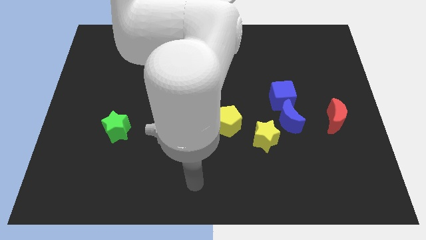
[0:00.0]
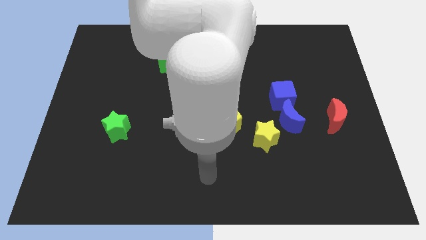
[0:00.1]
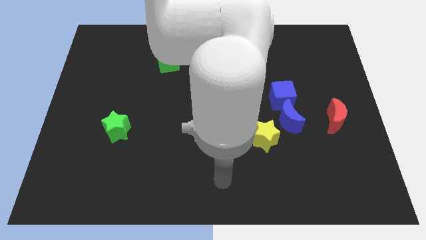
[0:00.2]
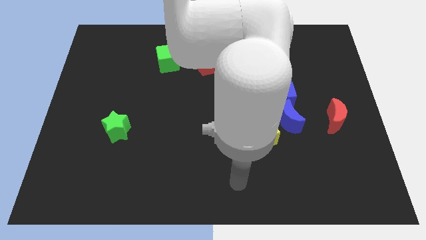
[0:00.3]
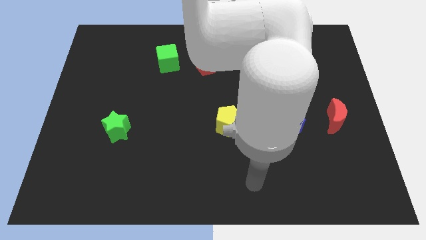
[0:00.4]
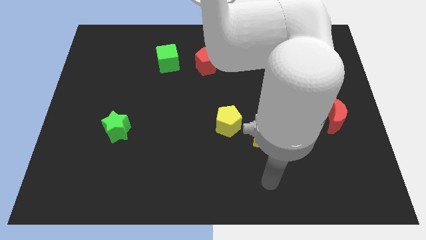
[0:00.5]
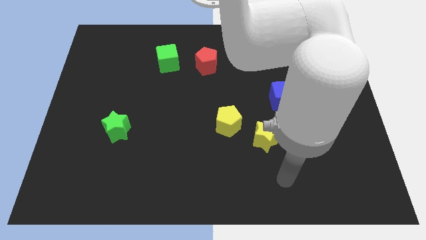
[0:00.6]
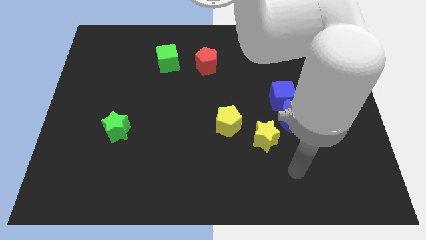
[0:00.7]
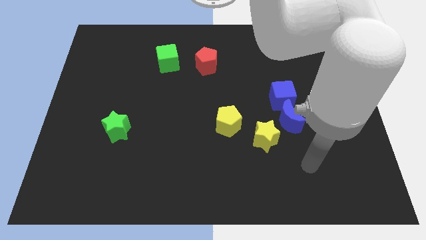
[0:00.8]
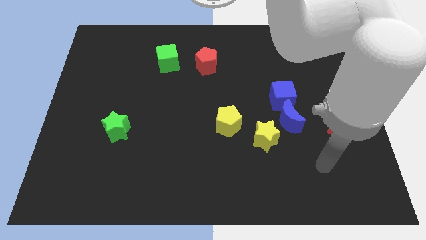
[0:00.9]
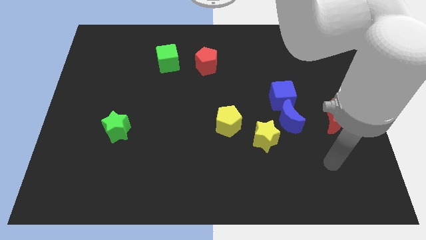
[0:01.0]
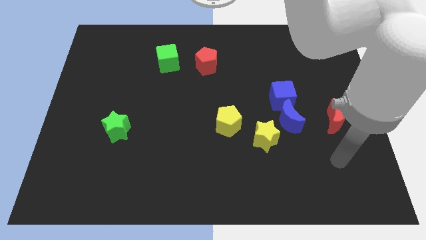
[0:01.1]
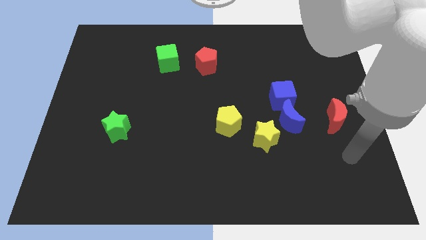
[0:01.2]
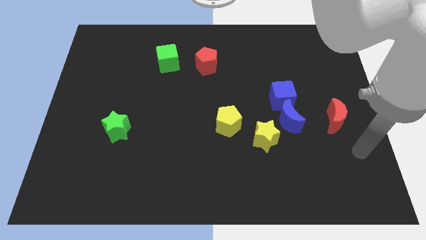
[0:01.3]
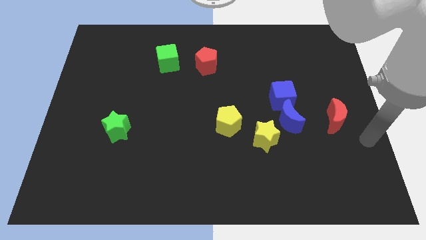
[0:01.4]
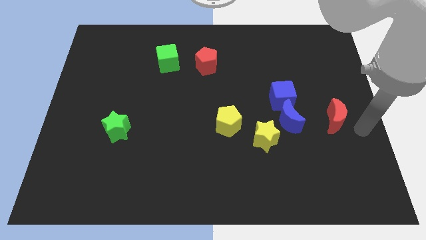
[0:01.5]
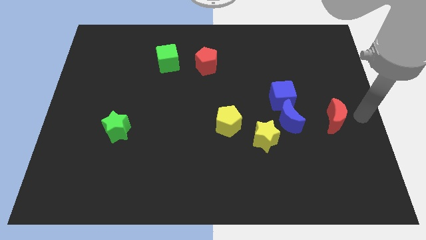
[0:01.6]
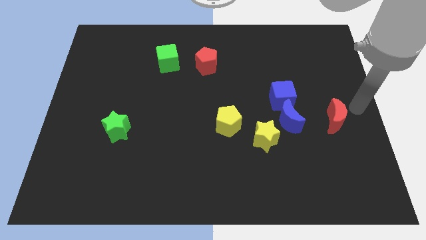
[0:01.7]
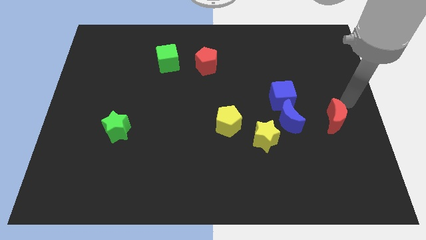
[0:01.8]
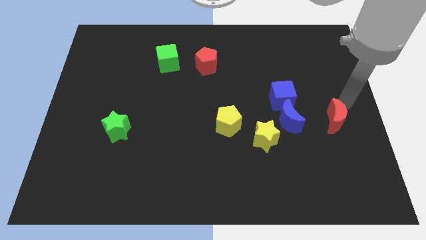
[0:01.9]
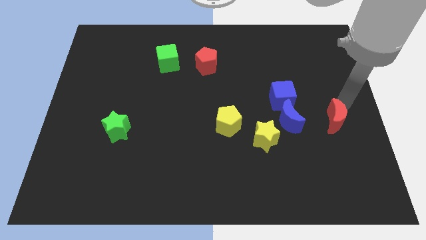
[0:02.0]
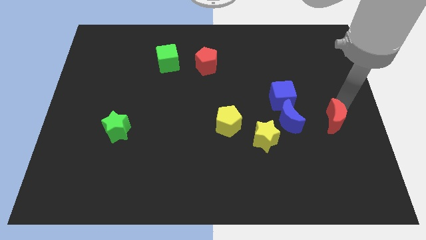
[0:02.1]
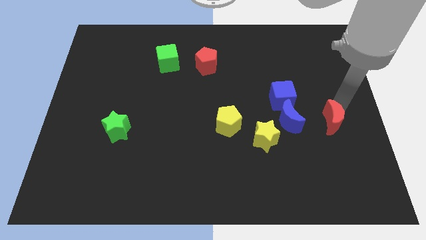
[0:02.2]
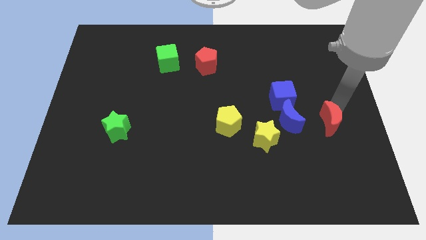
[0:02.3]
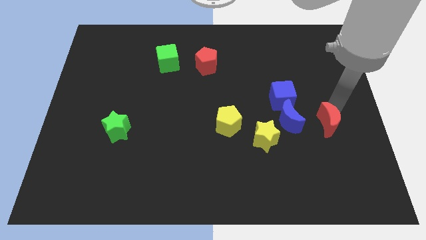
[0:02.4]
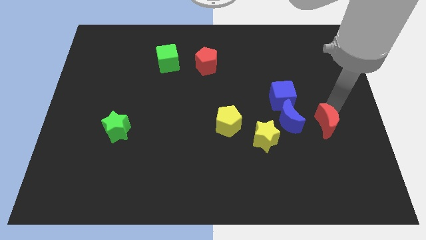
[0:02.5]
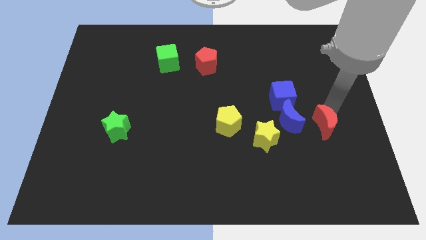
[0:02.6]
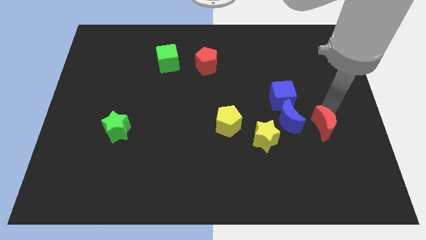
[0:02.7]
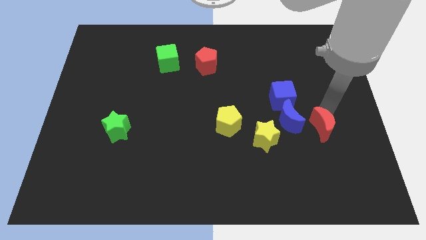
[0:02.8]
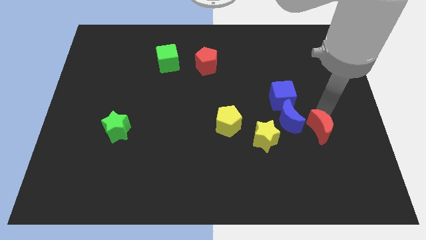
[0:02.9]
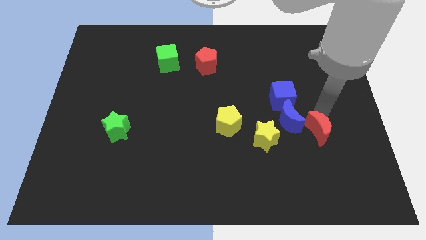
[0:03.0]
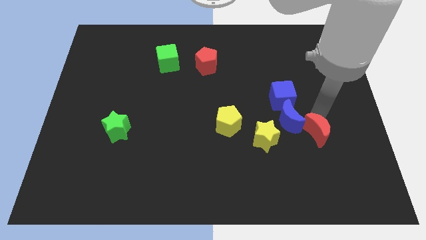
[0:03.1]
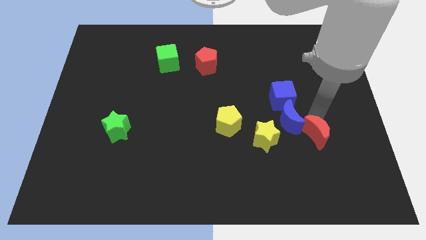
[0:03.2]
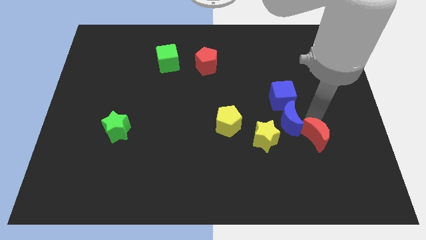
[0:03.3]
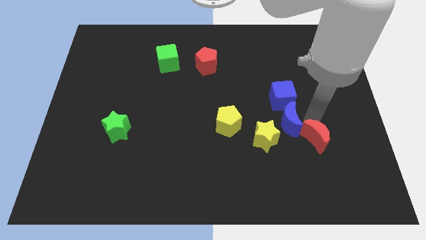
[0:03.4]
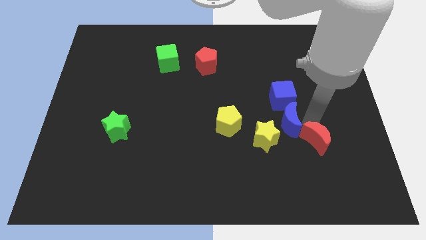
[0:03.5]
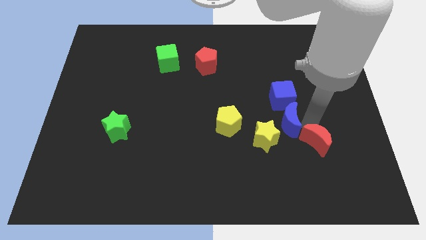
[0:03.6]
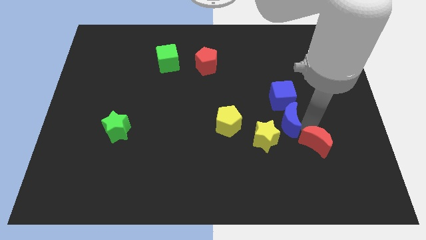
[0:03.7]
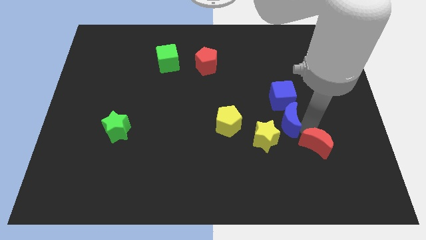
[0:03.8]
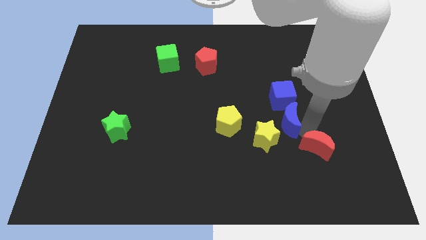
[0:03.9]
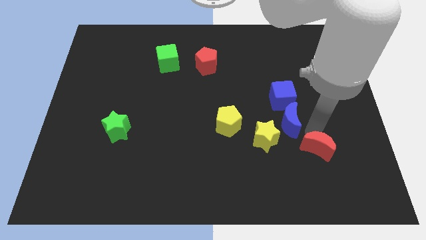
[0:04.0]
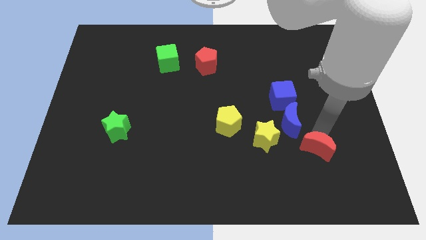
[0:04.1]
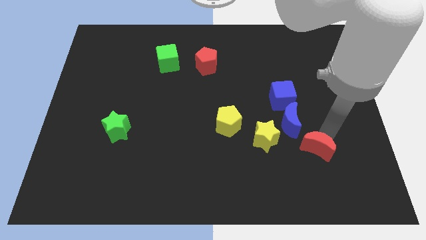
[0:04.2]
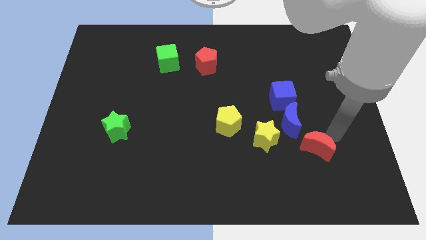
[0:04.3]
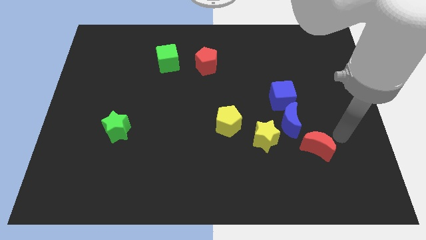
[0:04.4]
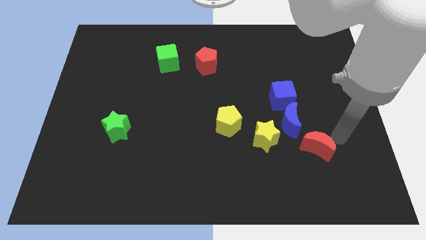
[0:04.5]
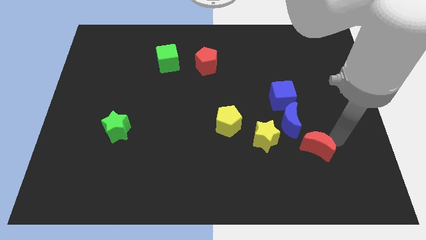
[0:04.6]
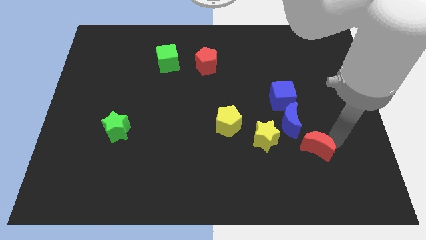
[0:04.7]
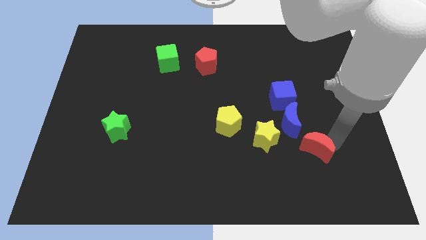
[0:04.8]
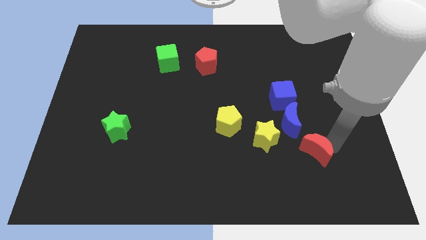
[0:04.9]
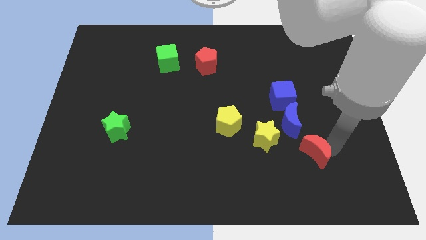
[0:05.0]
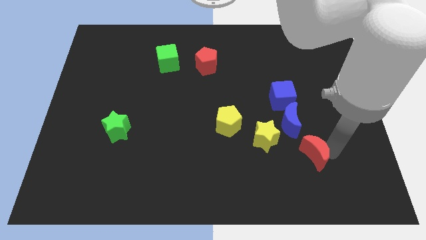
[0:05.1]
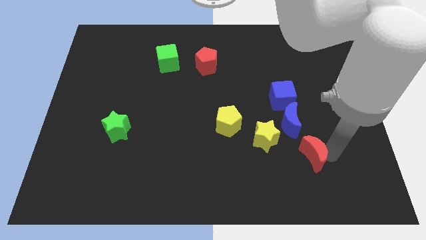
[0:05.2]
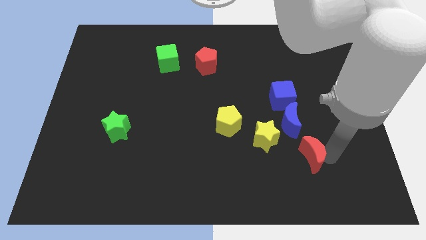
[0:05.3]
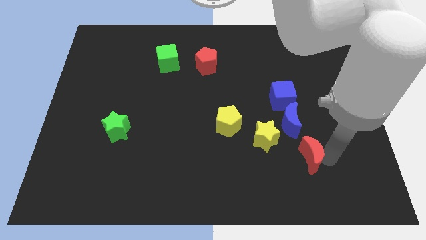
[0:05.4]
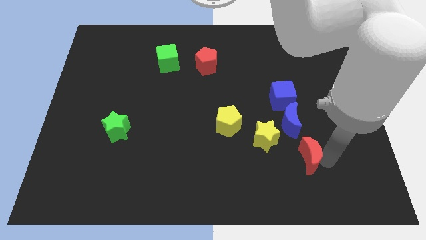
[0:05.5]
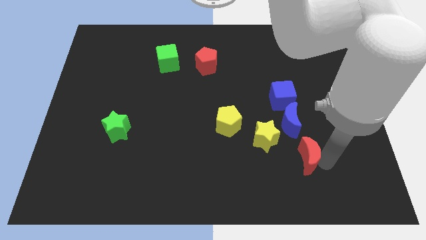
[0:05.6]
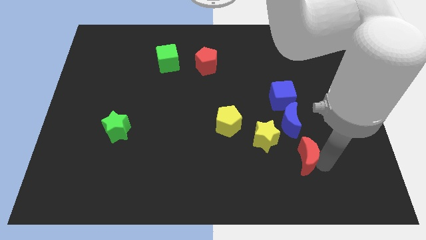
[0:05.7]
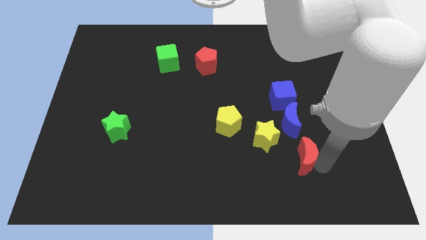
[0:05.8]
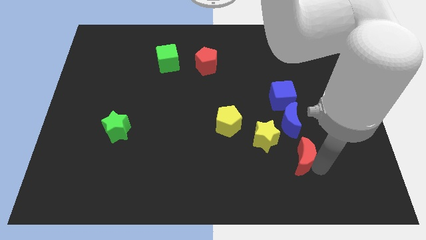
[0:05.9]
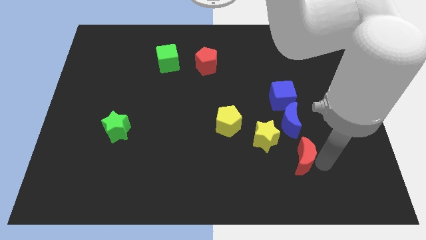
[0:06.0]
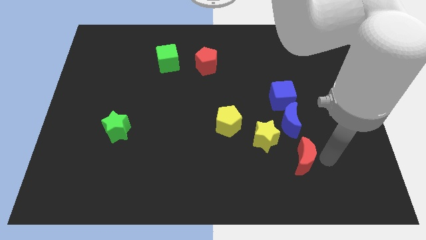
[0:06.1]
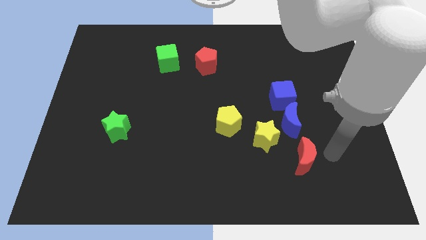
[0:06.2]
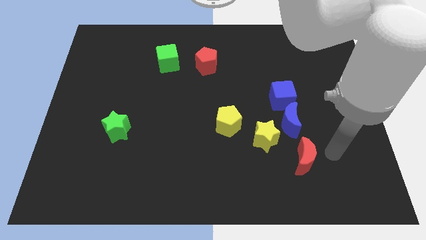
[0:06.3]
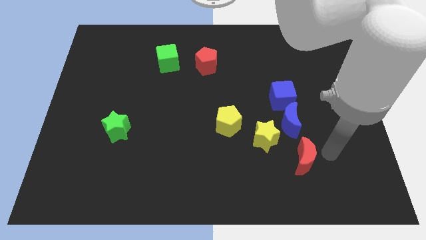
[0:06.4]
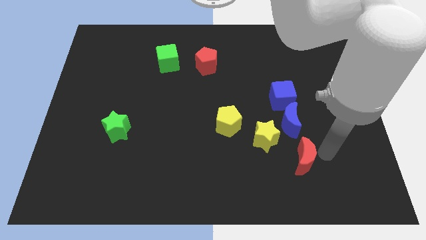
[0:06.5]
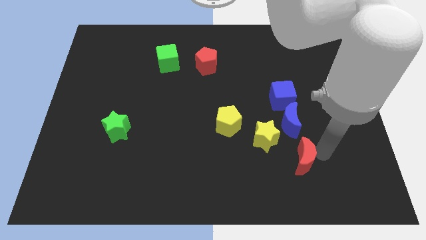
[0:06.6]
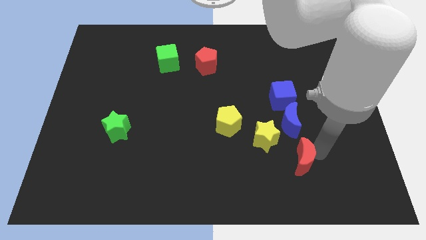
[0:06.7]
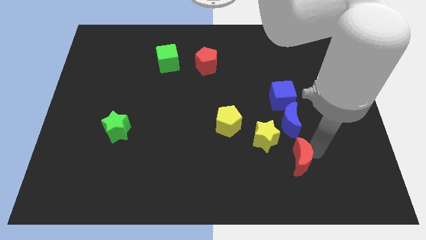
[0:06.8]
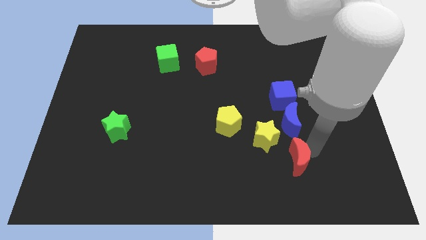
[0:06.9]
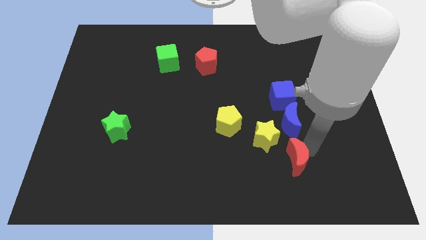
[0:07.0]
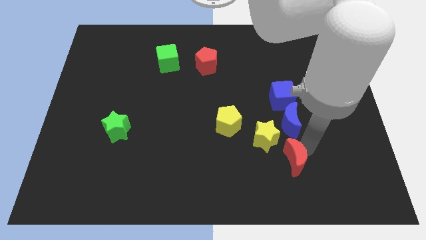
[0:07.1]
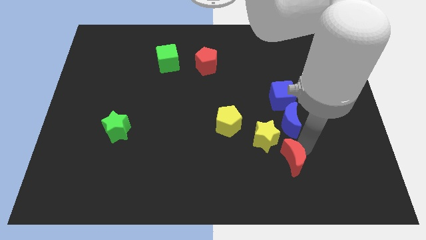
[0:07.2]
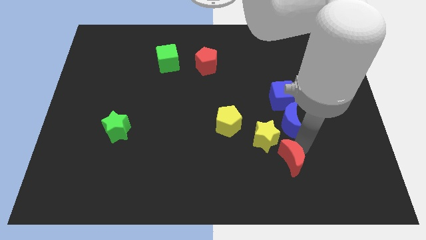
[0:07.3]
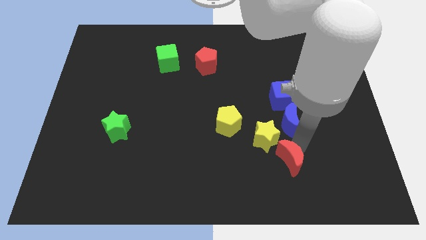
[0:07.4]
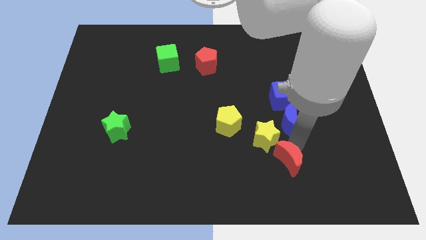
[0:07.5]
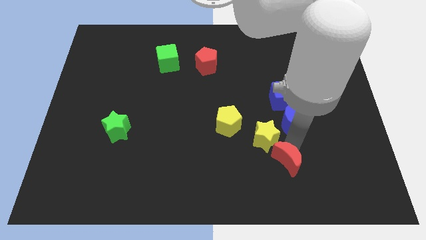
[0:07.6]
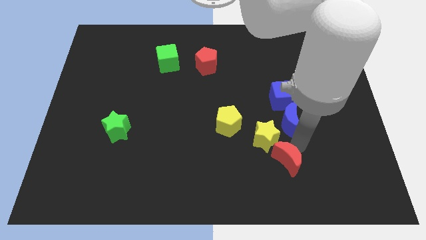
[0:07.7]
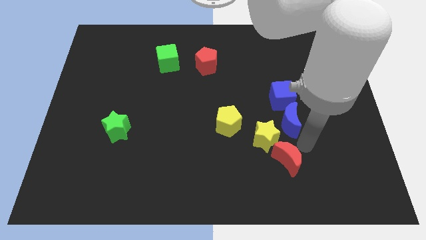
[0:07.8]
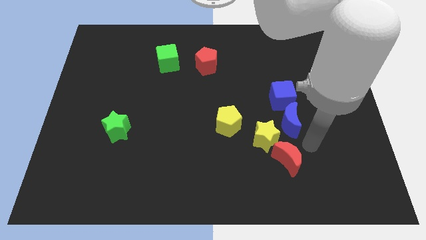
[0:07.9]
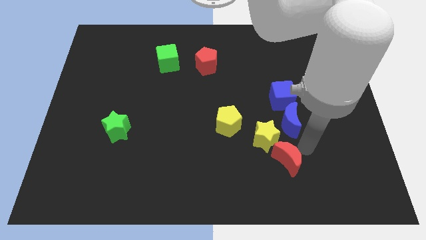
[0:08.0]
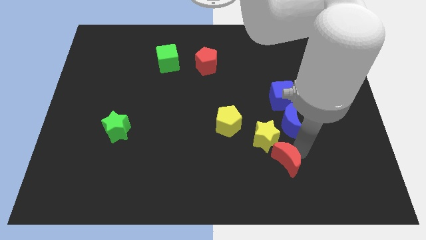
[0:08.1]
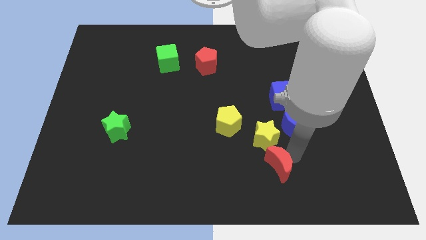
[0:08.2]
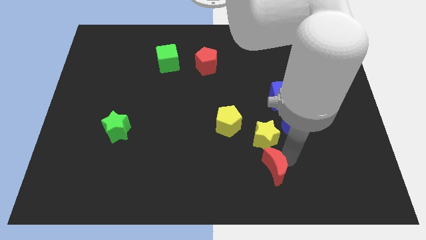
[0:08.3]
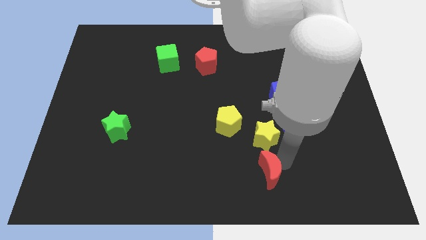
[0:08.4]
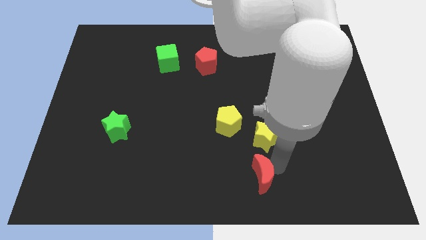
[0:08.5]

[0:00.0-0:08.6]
put the red moon to the bottom side
